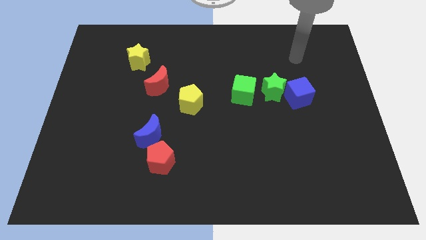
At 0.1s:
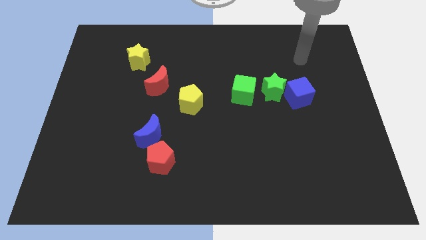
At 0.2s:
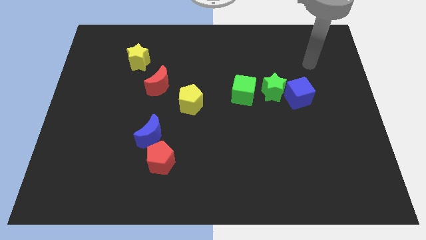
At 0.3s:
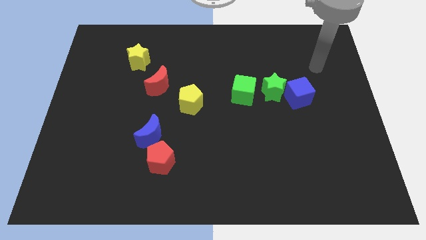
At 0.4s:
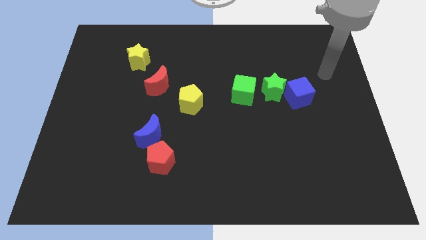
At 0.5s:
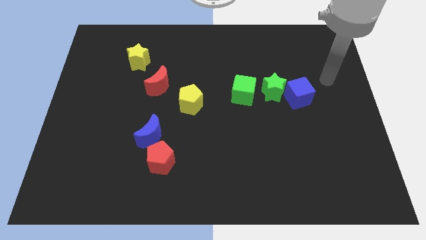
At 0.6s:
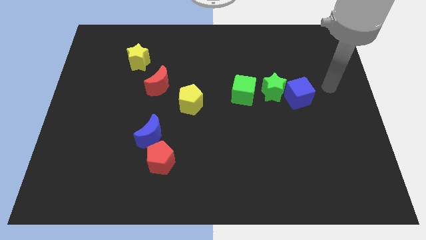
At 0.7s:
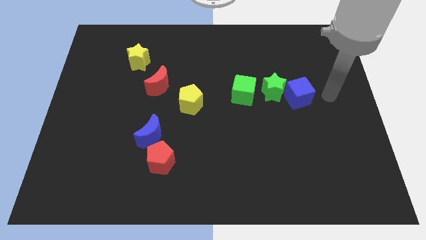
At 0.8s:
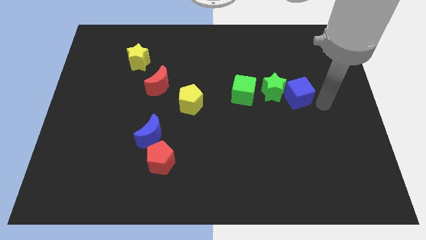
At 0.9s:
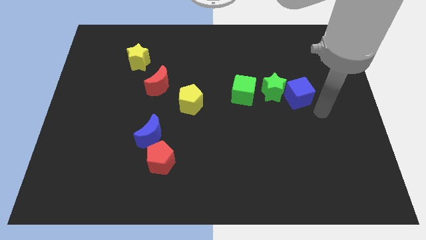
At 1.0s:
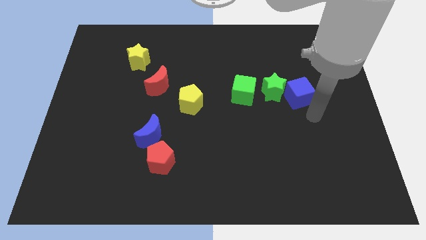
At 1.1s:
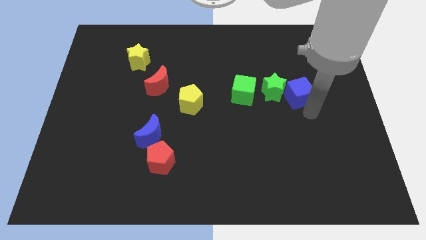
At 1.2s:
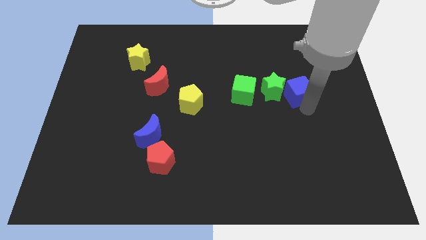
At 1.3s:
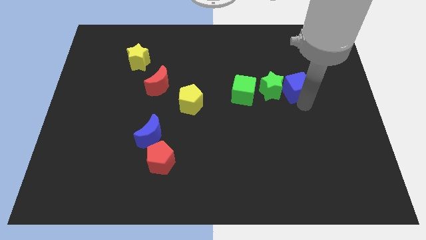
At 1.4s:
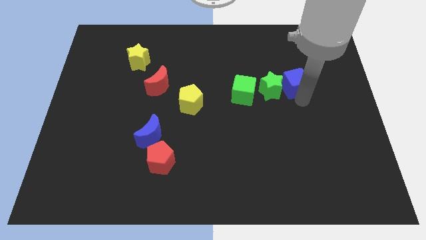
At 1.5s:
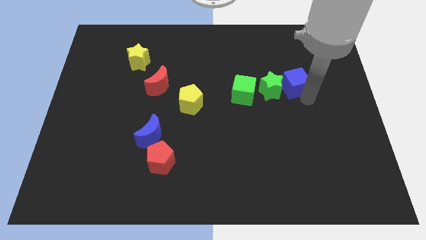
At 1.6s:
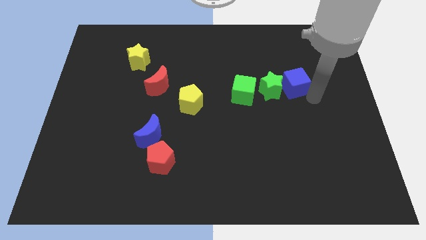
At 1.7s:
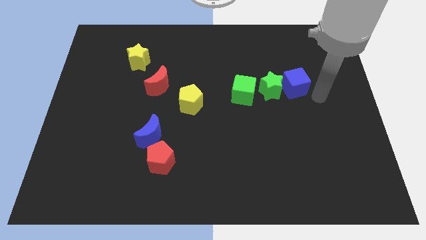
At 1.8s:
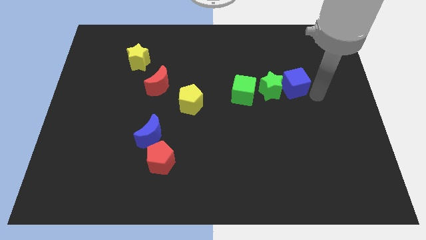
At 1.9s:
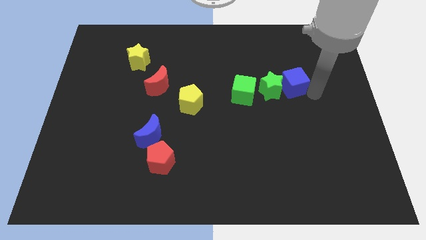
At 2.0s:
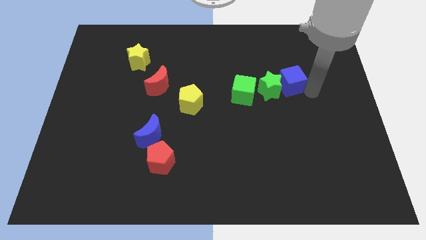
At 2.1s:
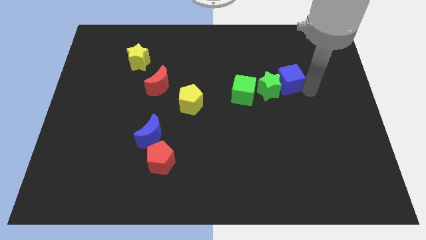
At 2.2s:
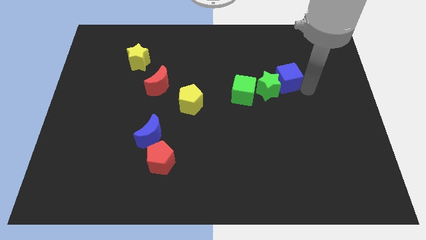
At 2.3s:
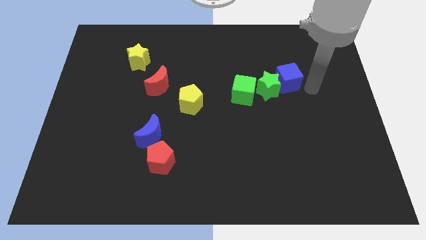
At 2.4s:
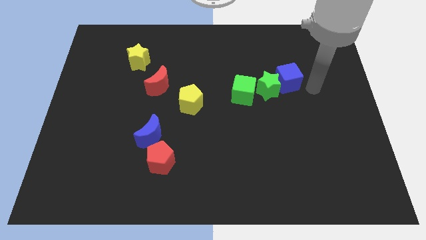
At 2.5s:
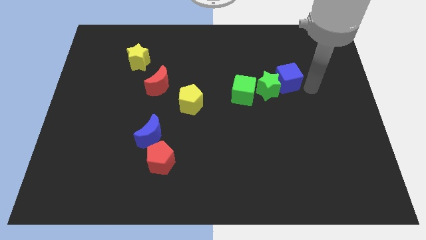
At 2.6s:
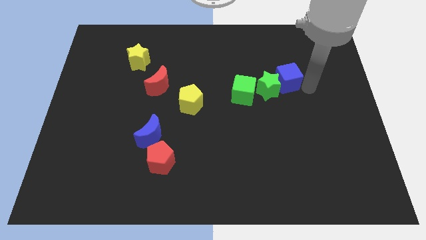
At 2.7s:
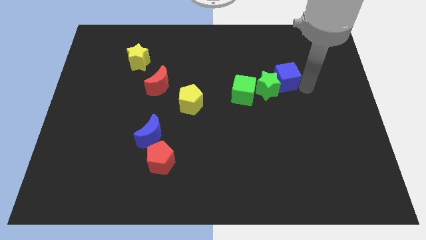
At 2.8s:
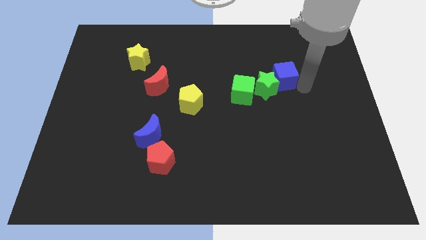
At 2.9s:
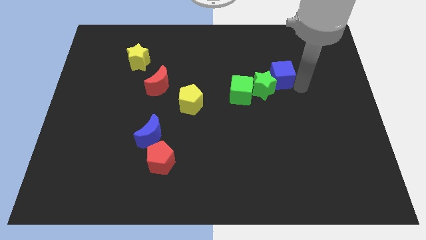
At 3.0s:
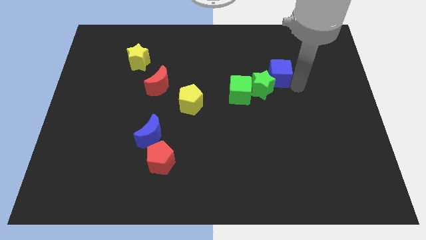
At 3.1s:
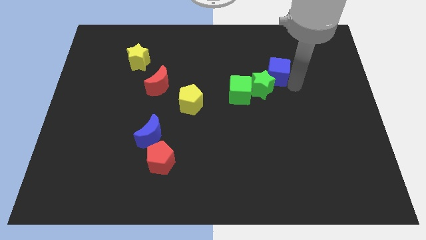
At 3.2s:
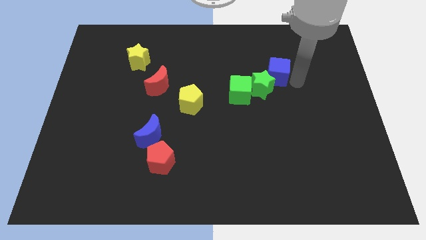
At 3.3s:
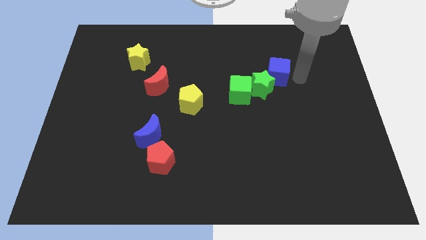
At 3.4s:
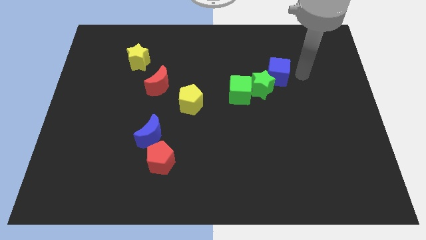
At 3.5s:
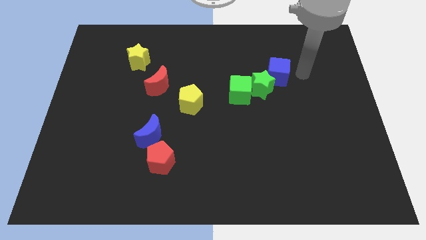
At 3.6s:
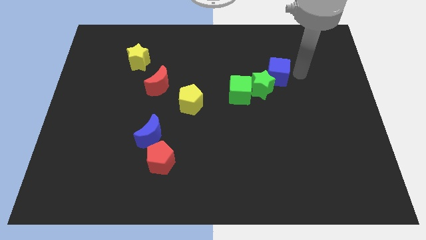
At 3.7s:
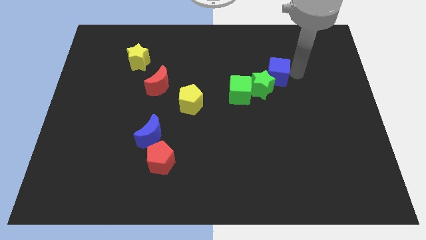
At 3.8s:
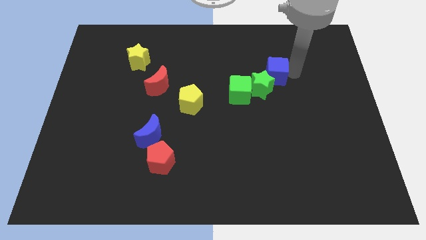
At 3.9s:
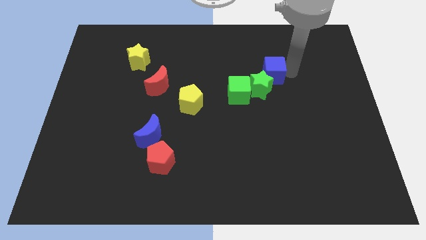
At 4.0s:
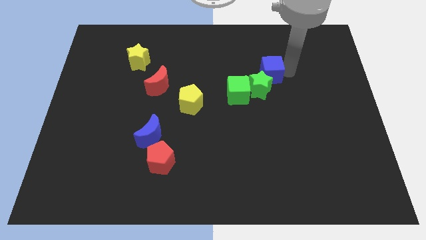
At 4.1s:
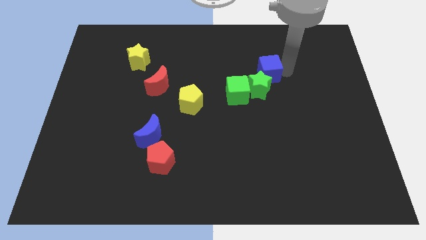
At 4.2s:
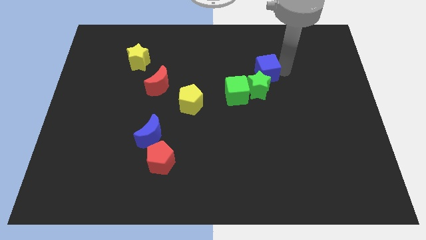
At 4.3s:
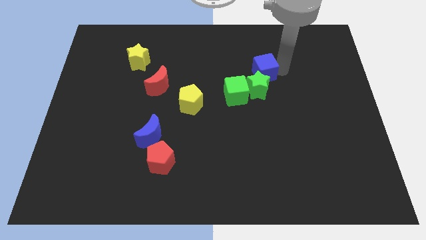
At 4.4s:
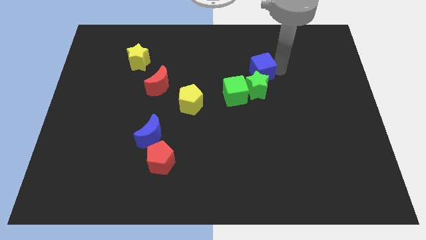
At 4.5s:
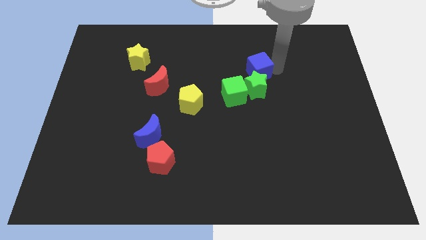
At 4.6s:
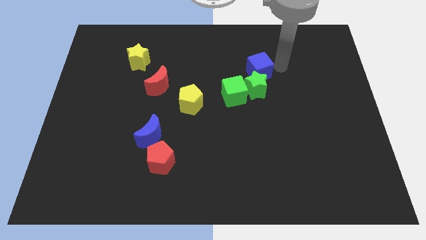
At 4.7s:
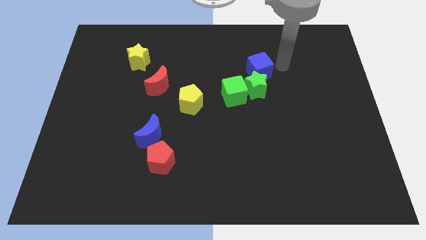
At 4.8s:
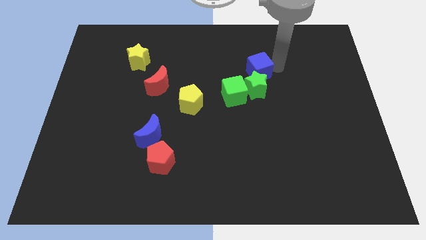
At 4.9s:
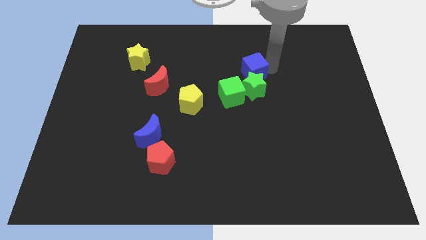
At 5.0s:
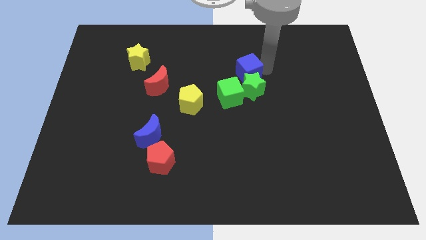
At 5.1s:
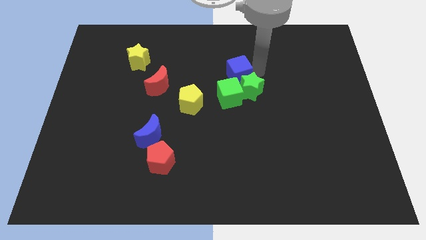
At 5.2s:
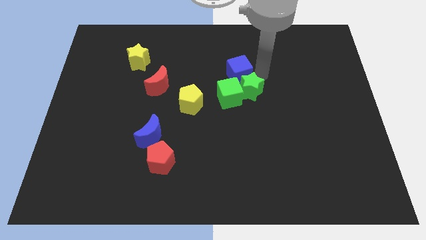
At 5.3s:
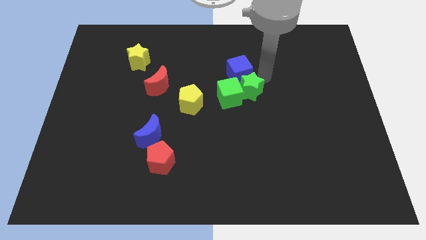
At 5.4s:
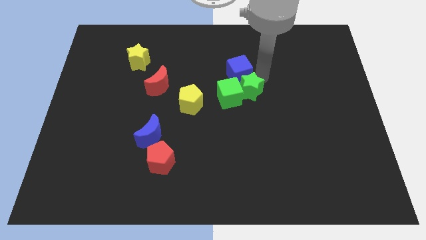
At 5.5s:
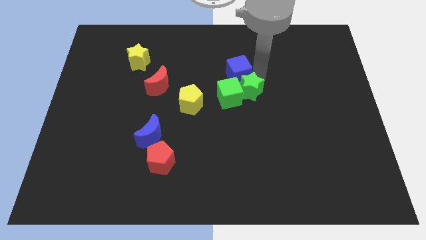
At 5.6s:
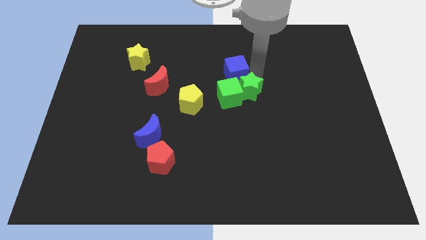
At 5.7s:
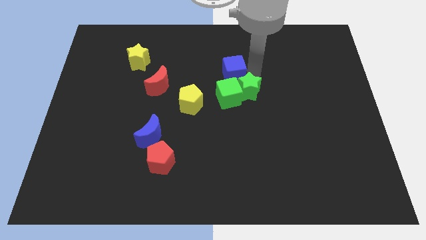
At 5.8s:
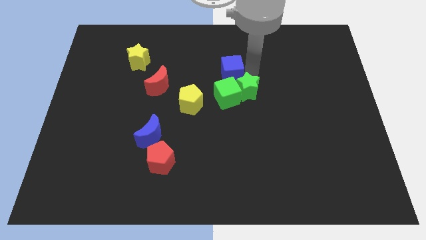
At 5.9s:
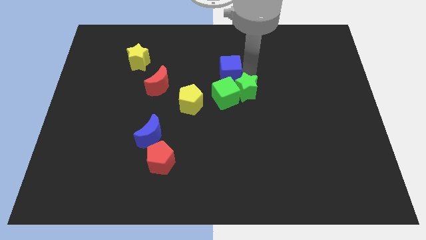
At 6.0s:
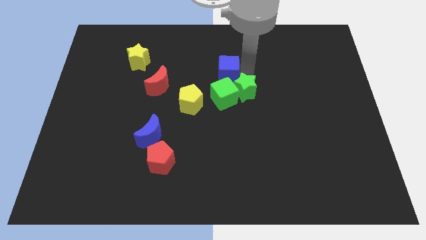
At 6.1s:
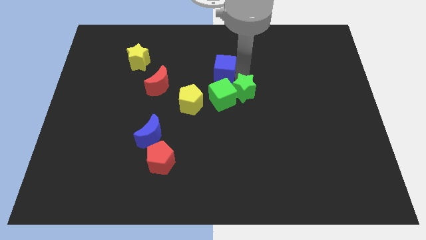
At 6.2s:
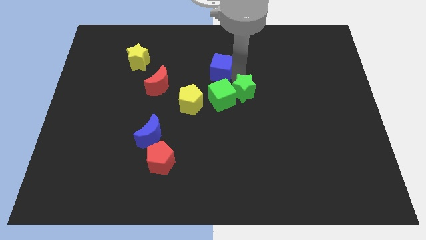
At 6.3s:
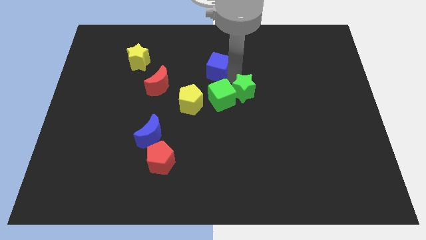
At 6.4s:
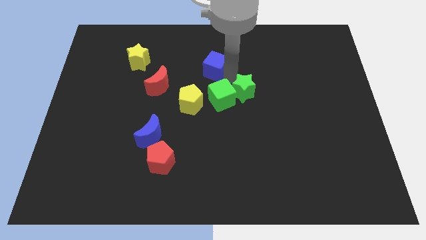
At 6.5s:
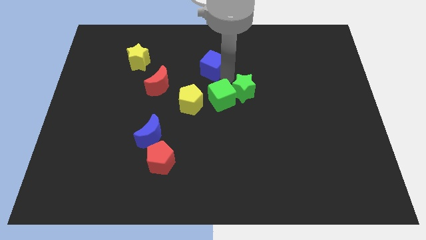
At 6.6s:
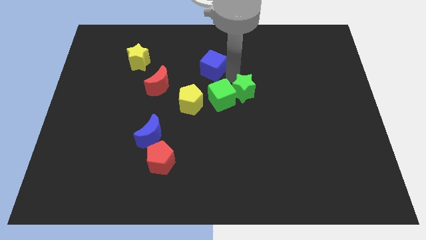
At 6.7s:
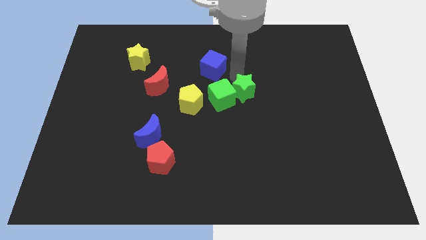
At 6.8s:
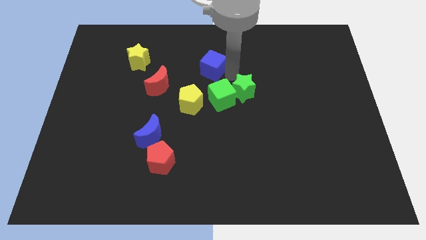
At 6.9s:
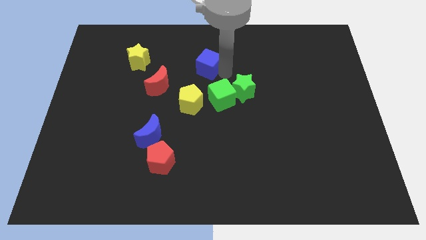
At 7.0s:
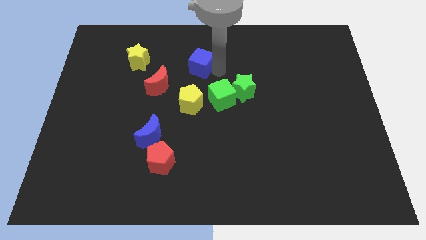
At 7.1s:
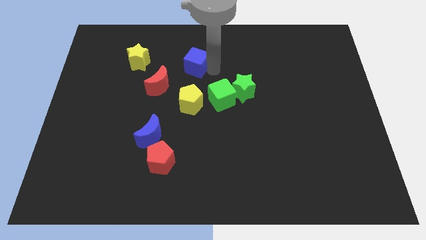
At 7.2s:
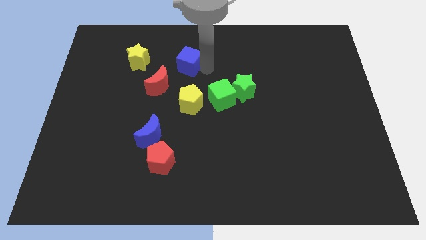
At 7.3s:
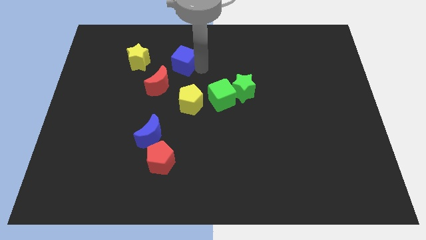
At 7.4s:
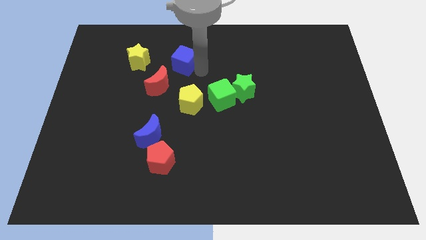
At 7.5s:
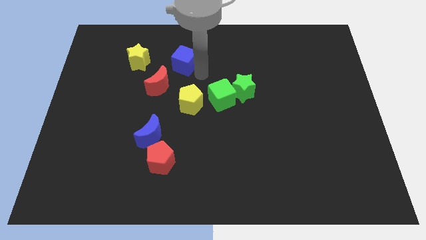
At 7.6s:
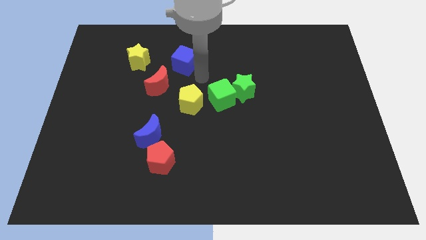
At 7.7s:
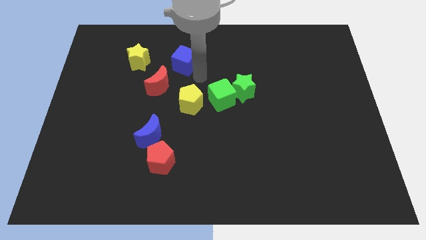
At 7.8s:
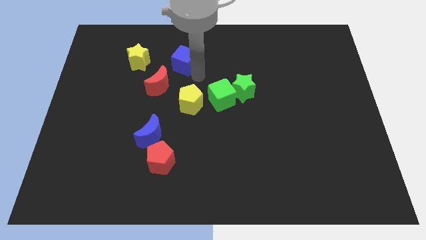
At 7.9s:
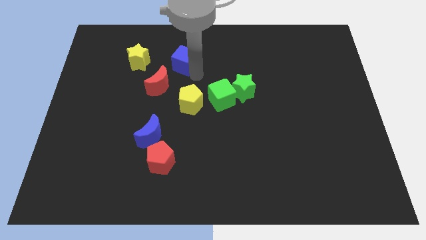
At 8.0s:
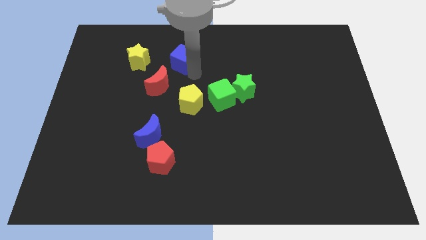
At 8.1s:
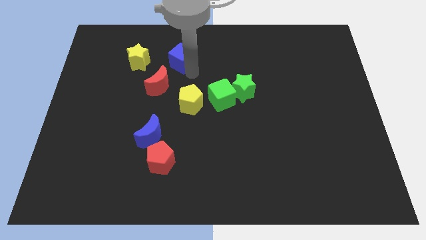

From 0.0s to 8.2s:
slide the blue cube above the red moon
